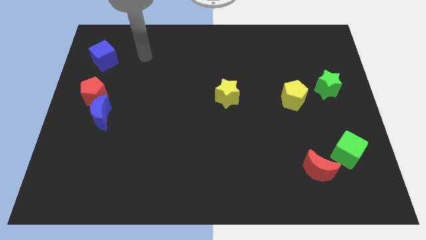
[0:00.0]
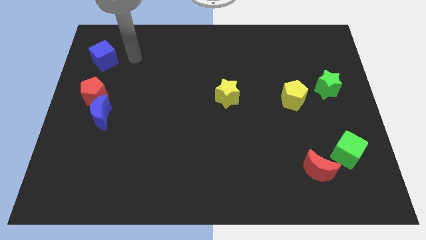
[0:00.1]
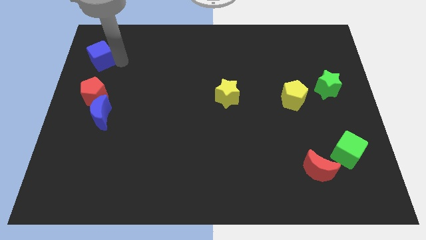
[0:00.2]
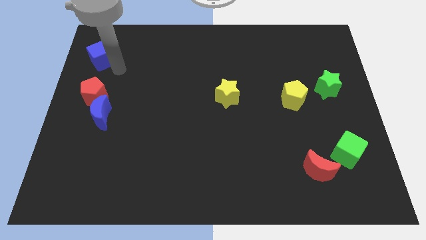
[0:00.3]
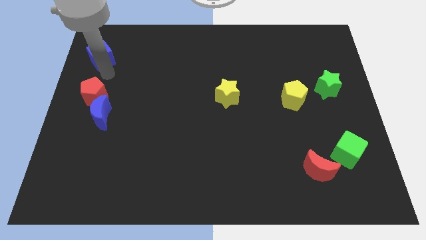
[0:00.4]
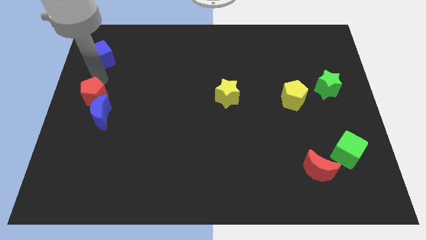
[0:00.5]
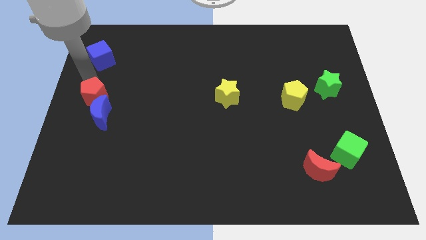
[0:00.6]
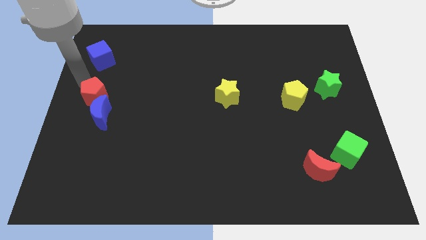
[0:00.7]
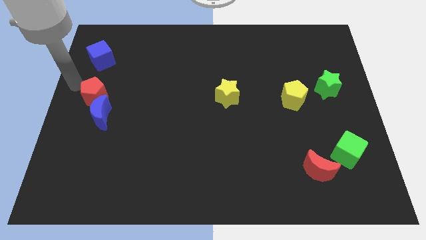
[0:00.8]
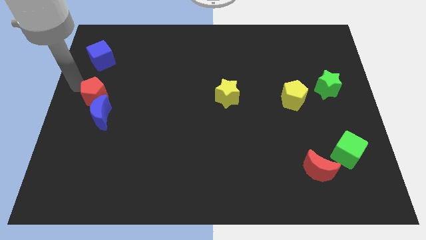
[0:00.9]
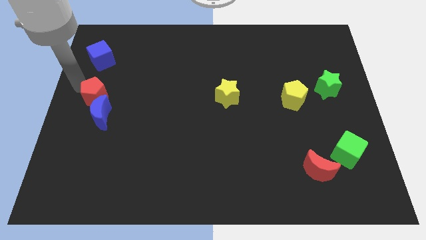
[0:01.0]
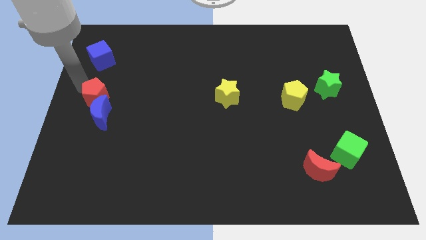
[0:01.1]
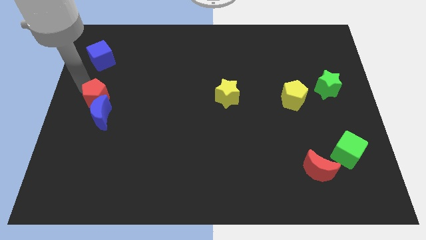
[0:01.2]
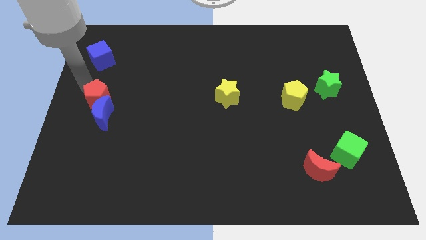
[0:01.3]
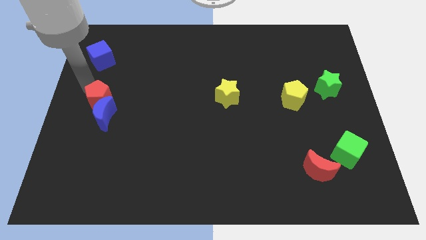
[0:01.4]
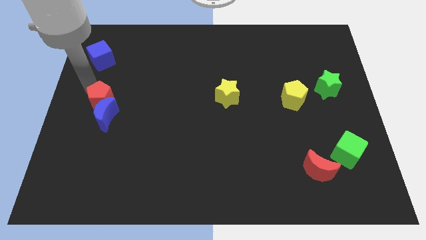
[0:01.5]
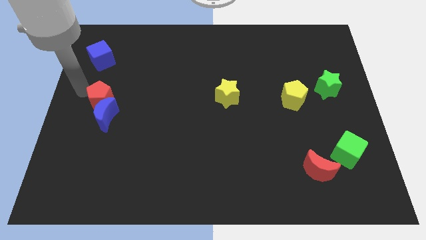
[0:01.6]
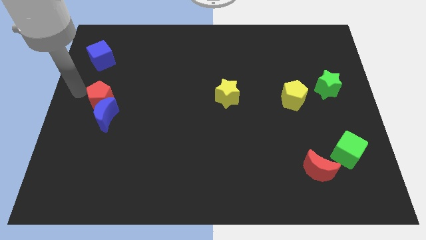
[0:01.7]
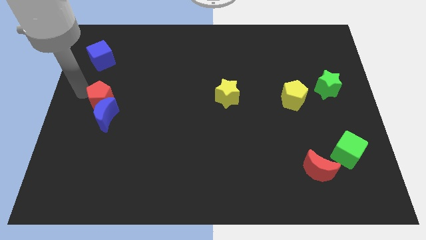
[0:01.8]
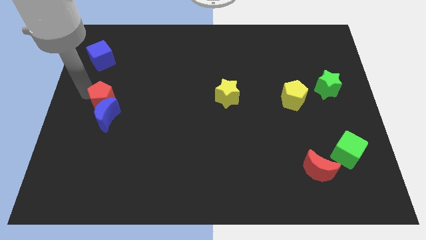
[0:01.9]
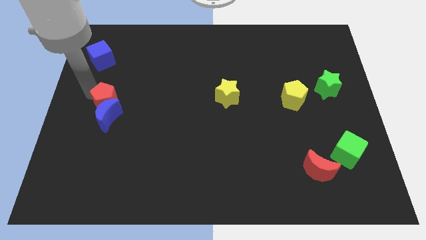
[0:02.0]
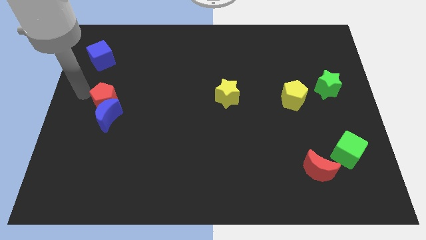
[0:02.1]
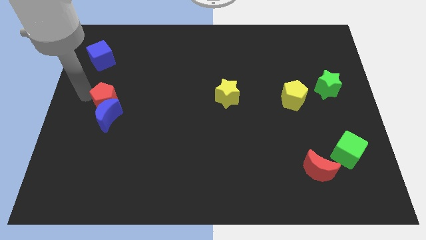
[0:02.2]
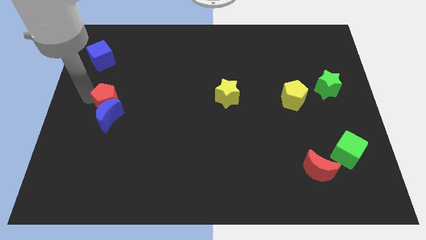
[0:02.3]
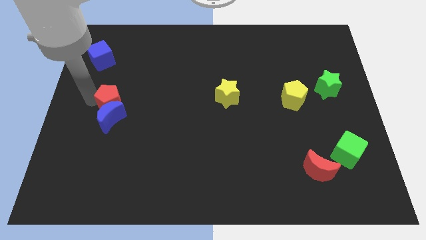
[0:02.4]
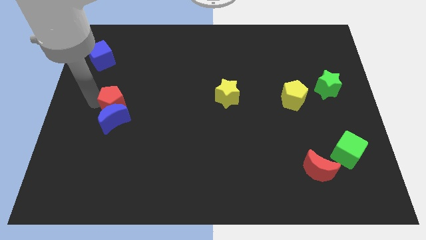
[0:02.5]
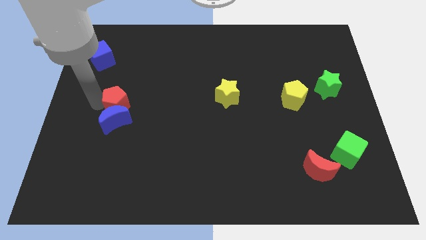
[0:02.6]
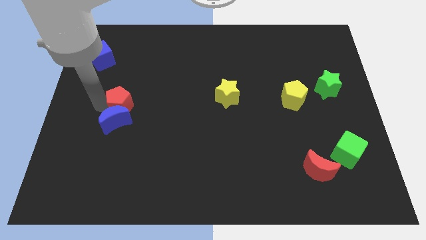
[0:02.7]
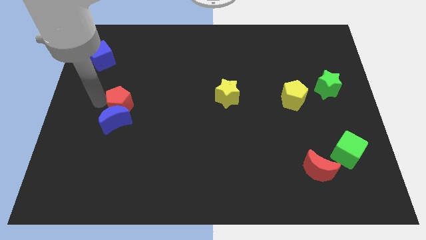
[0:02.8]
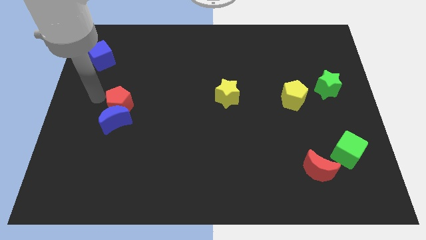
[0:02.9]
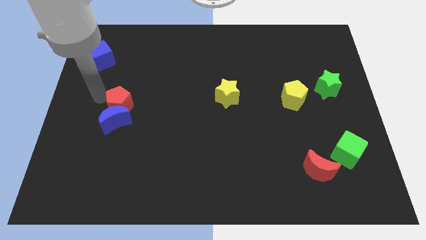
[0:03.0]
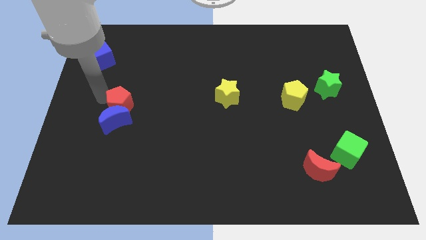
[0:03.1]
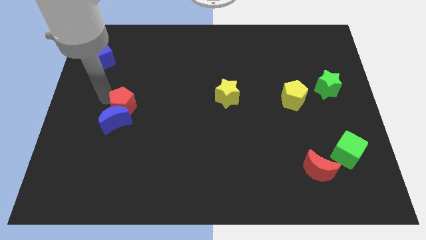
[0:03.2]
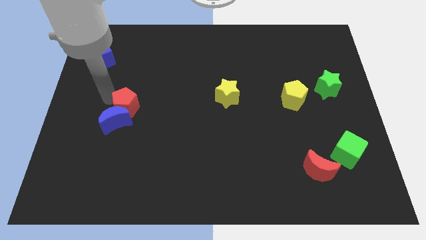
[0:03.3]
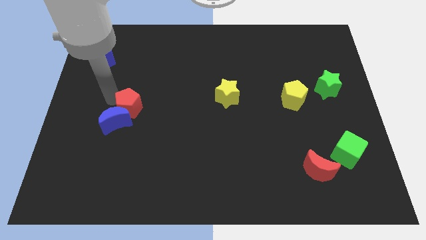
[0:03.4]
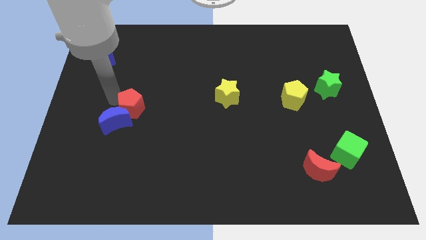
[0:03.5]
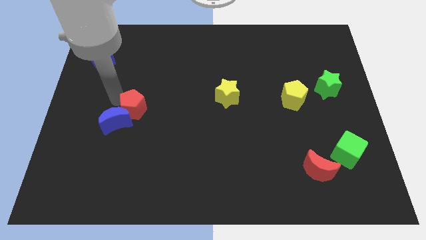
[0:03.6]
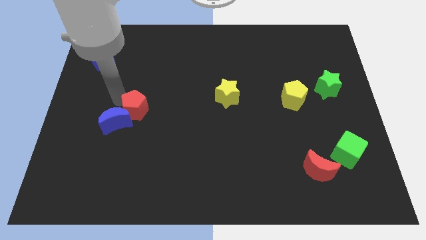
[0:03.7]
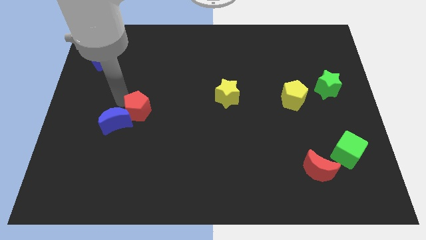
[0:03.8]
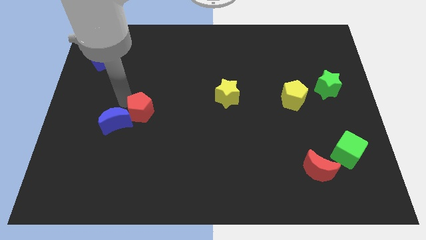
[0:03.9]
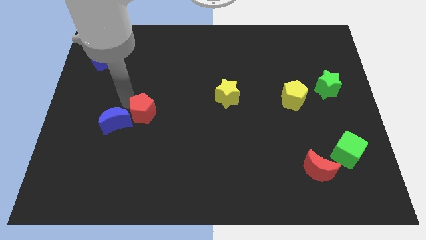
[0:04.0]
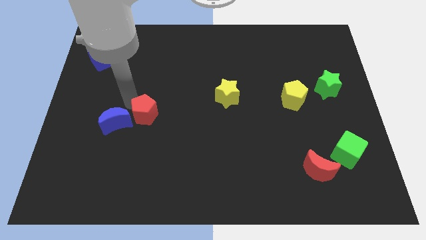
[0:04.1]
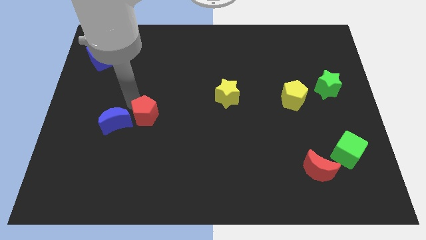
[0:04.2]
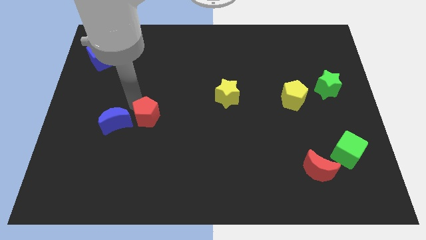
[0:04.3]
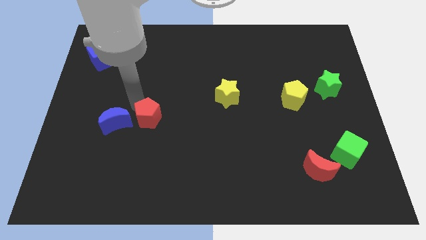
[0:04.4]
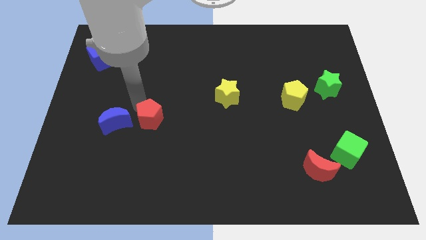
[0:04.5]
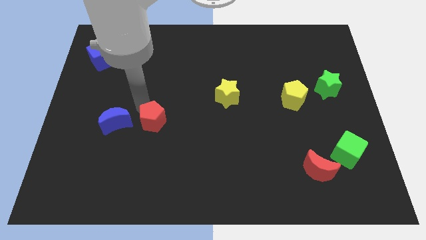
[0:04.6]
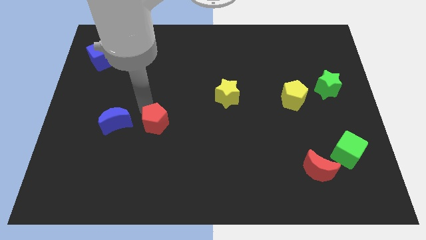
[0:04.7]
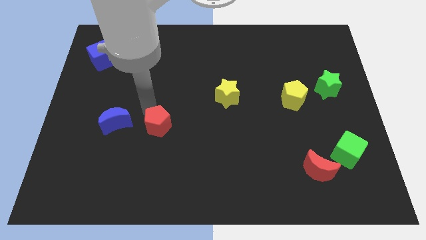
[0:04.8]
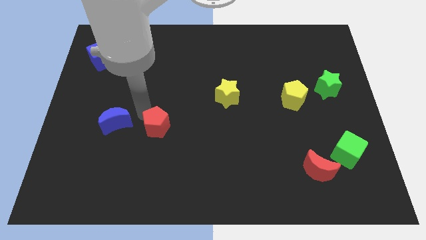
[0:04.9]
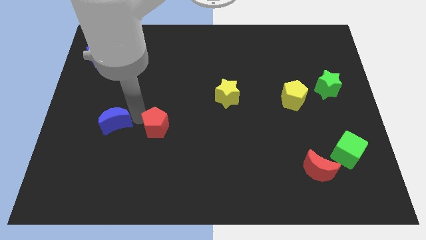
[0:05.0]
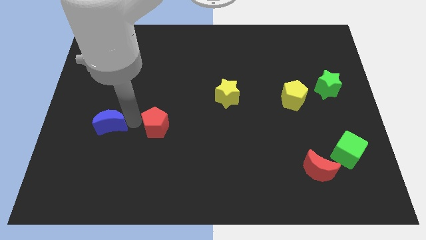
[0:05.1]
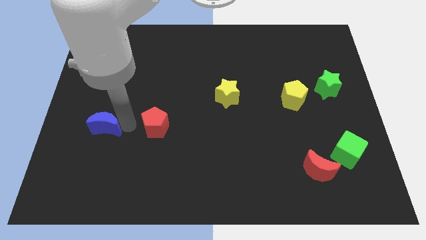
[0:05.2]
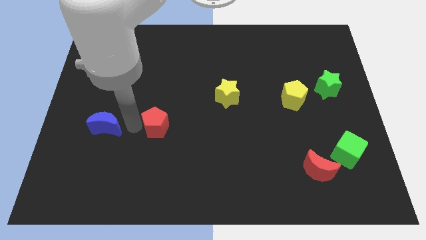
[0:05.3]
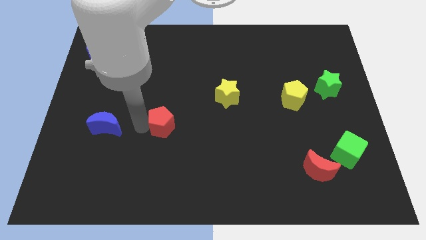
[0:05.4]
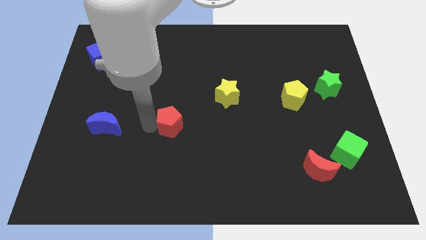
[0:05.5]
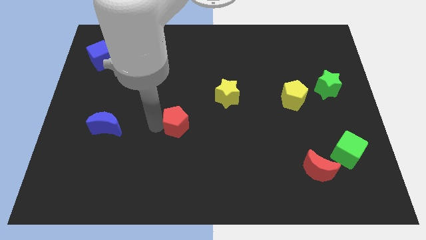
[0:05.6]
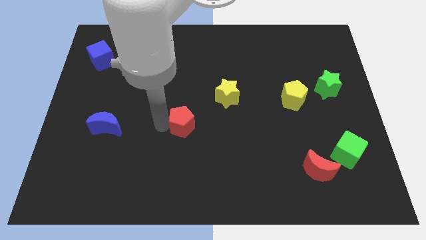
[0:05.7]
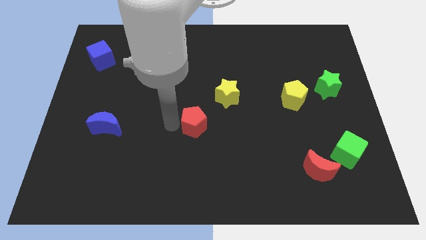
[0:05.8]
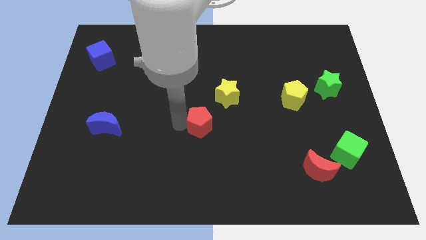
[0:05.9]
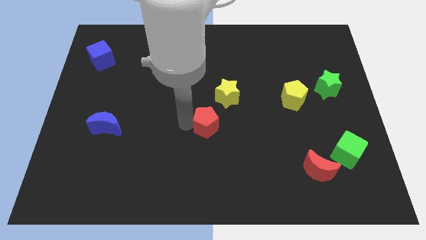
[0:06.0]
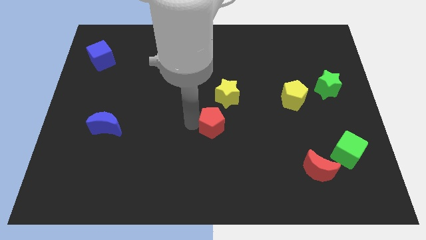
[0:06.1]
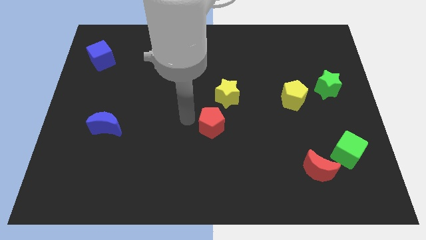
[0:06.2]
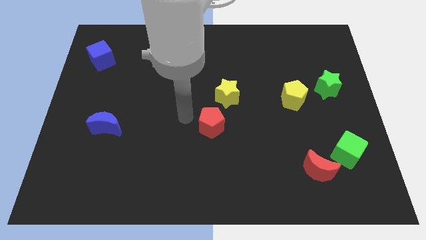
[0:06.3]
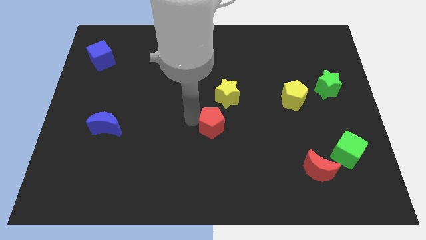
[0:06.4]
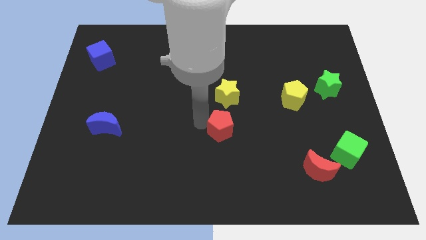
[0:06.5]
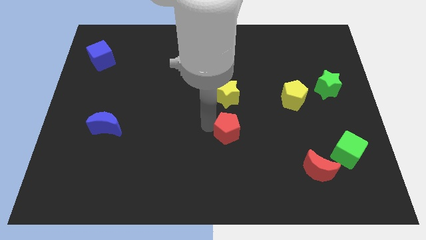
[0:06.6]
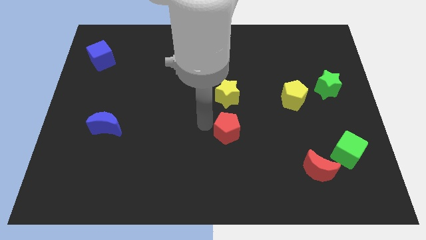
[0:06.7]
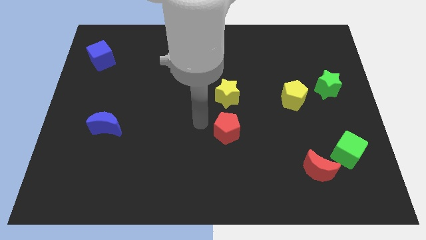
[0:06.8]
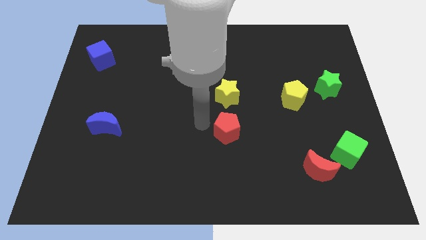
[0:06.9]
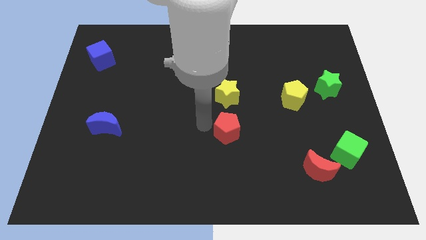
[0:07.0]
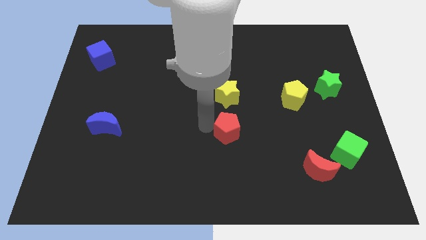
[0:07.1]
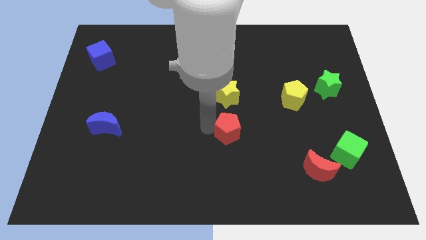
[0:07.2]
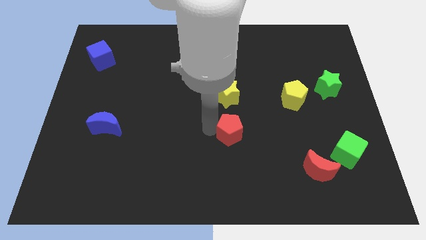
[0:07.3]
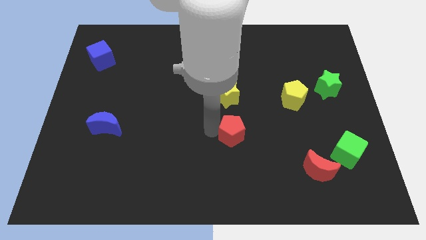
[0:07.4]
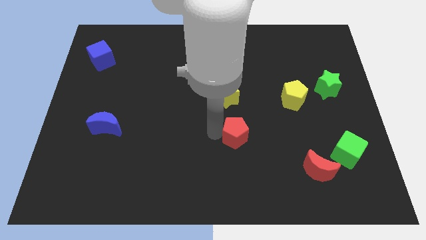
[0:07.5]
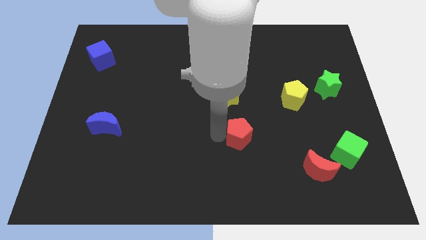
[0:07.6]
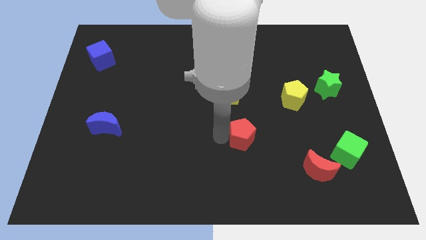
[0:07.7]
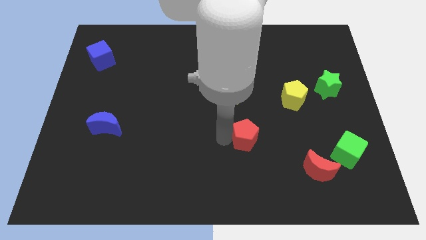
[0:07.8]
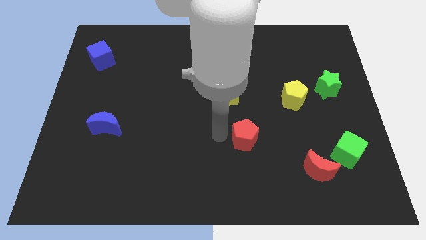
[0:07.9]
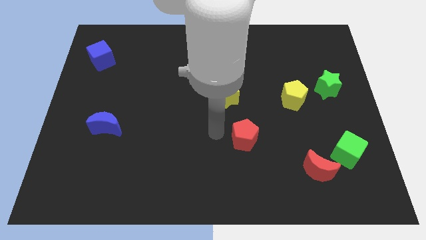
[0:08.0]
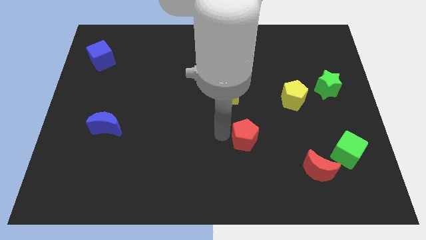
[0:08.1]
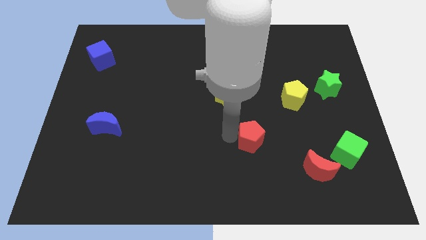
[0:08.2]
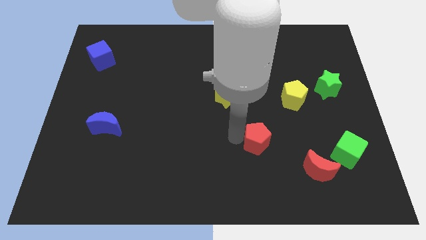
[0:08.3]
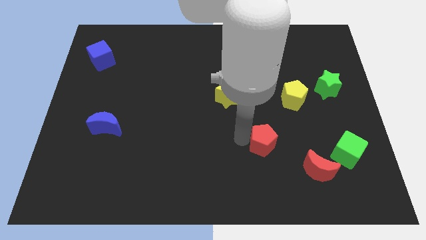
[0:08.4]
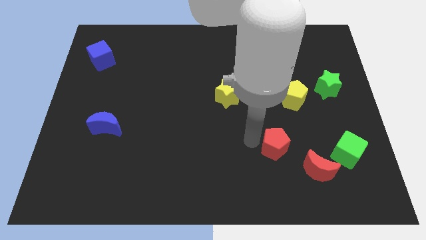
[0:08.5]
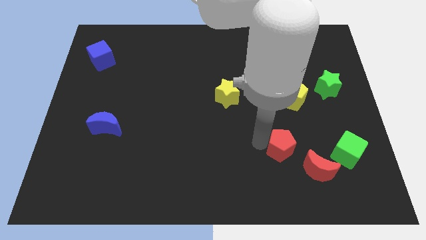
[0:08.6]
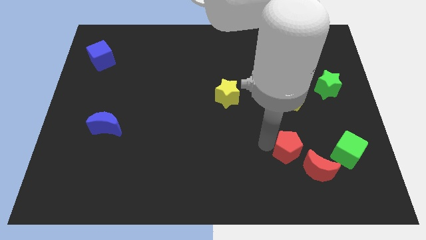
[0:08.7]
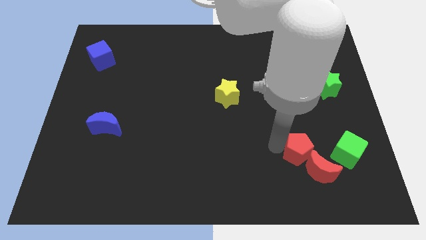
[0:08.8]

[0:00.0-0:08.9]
move the red pentagon towards the red moon
